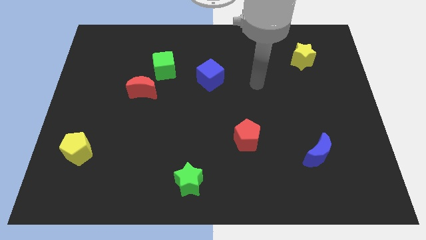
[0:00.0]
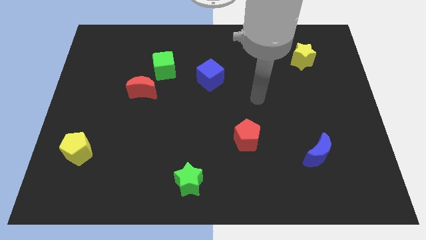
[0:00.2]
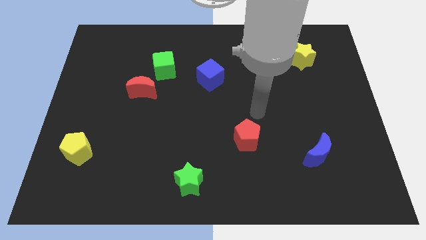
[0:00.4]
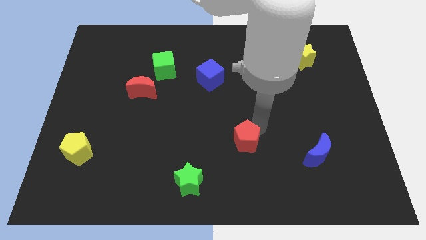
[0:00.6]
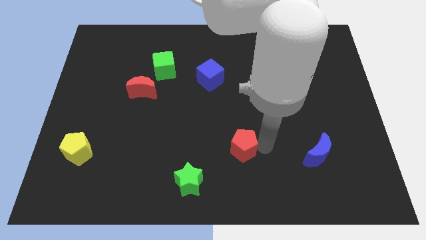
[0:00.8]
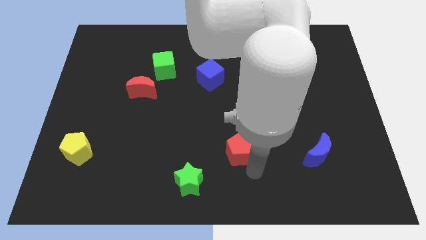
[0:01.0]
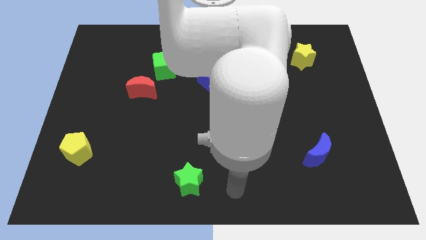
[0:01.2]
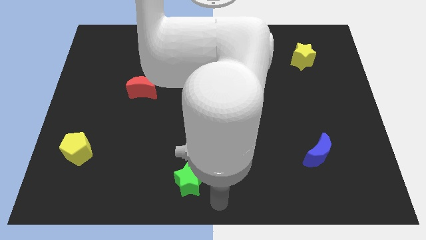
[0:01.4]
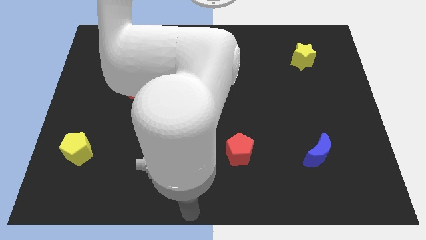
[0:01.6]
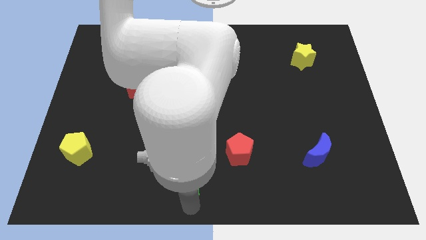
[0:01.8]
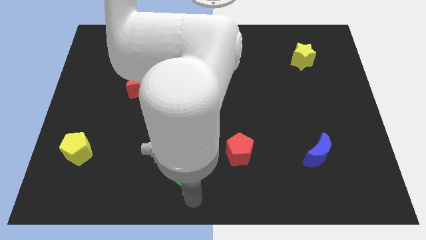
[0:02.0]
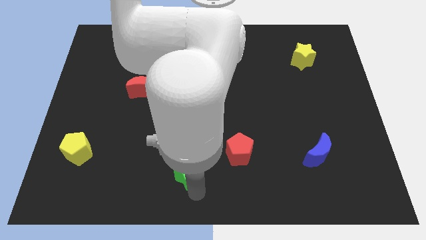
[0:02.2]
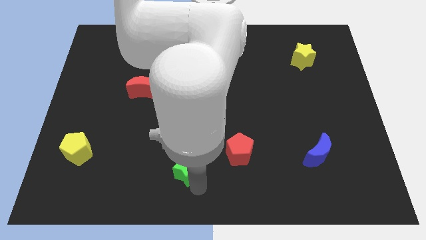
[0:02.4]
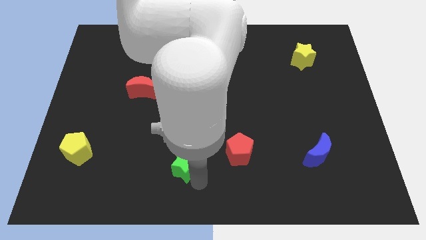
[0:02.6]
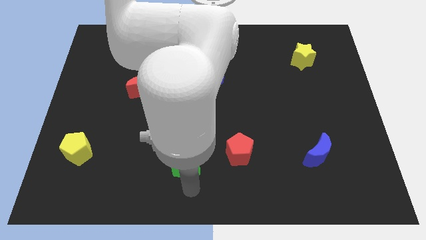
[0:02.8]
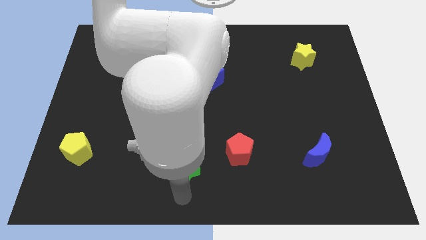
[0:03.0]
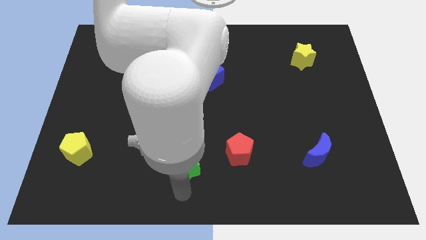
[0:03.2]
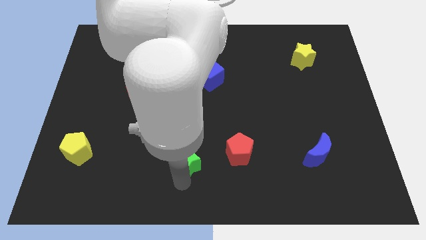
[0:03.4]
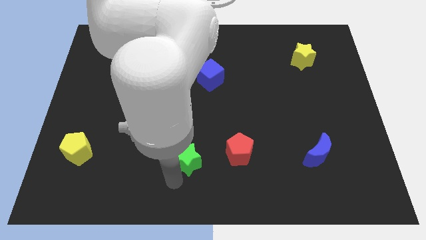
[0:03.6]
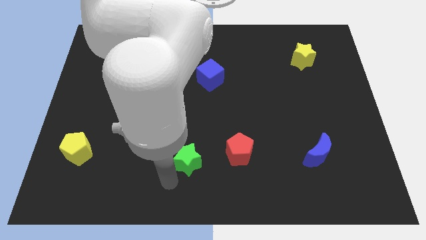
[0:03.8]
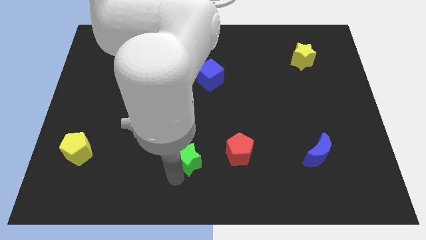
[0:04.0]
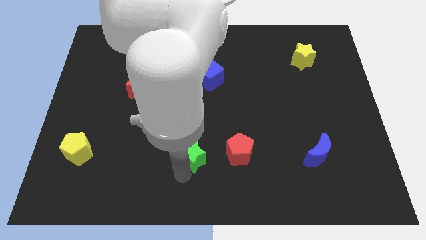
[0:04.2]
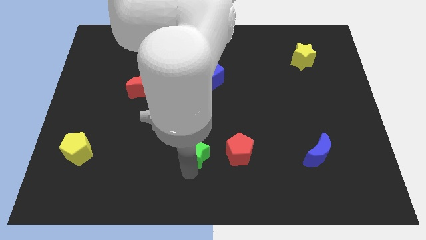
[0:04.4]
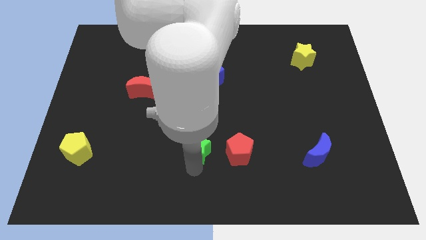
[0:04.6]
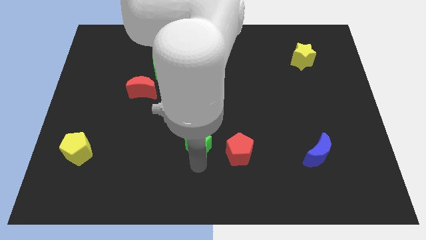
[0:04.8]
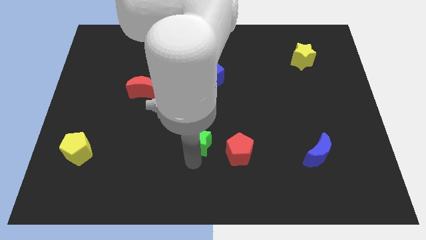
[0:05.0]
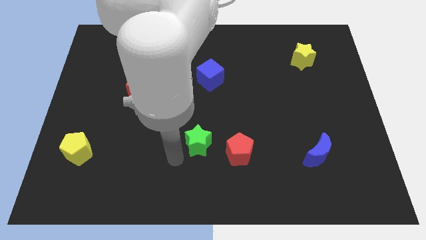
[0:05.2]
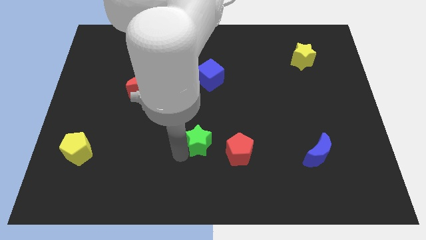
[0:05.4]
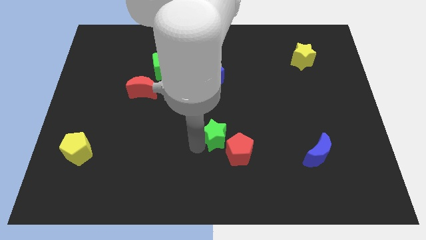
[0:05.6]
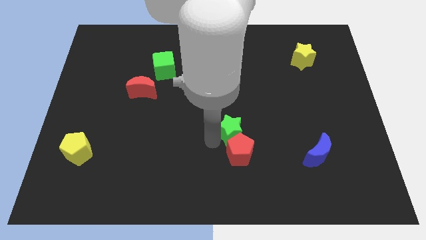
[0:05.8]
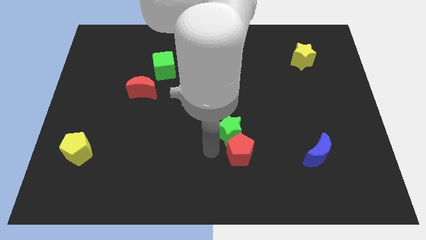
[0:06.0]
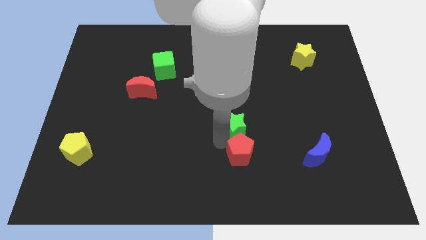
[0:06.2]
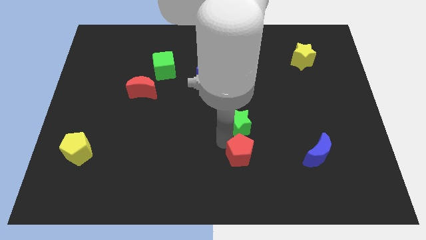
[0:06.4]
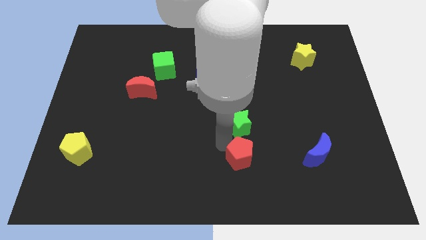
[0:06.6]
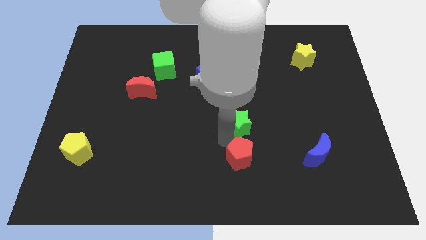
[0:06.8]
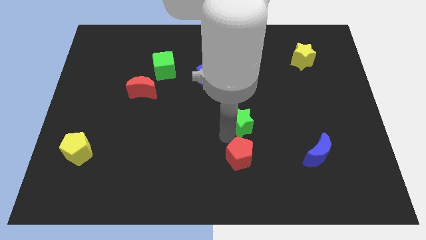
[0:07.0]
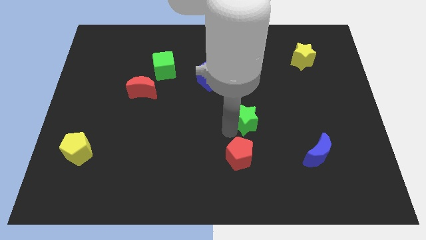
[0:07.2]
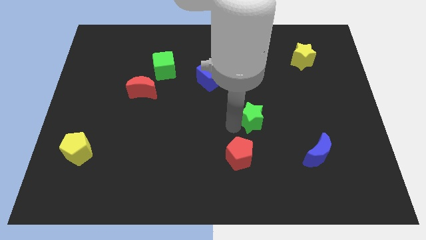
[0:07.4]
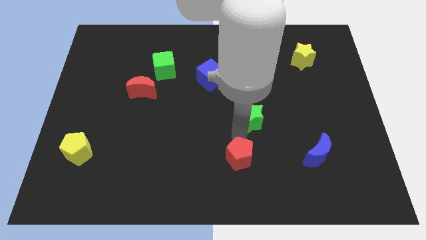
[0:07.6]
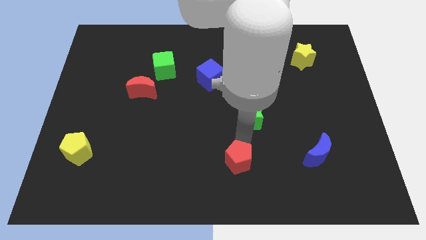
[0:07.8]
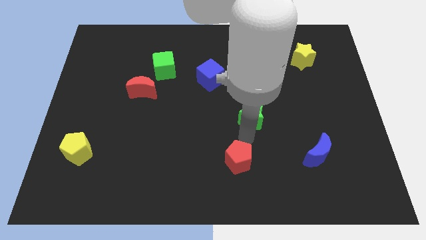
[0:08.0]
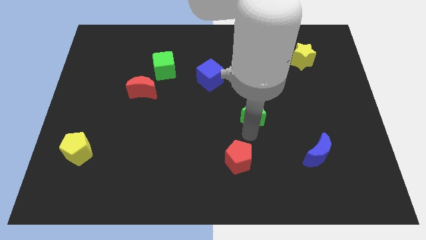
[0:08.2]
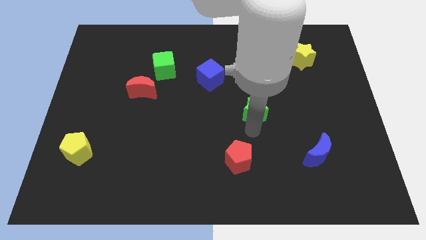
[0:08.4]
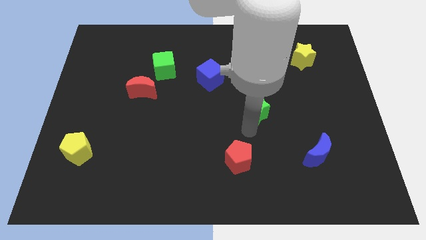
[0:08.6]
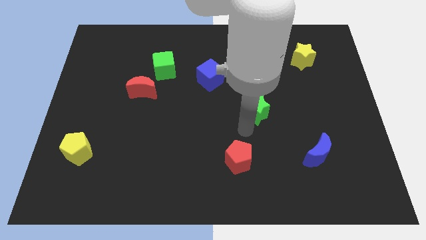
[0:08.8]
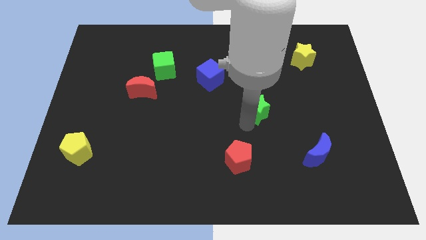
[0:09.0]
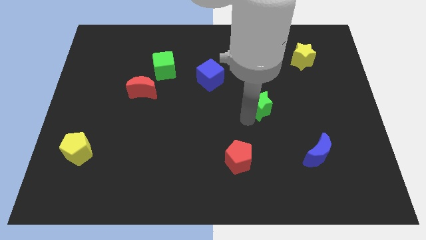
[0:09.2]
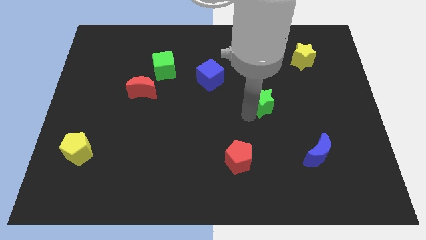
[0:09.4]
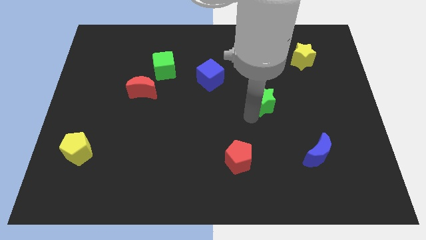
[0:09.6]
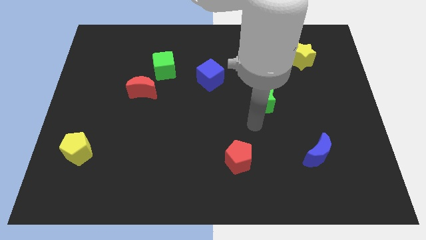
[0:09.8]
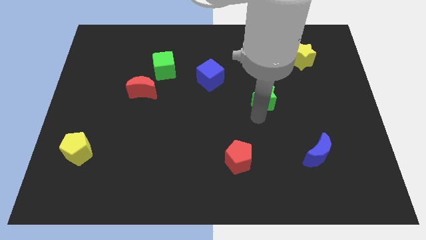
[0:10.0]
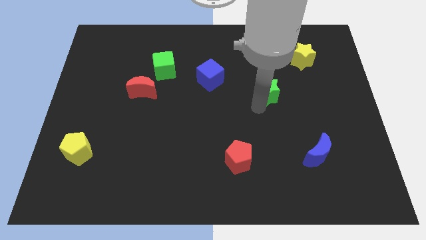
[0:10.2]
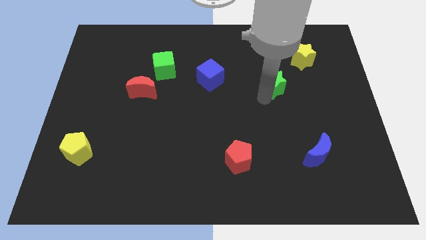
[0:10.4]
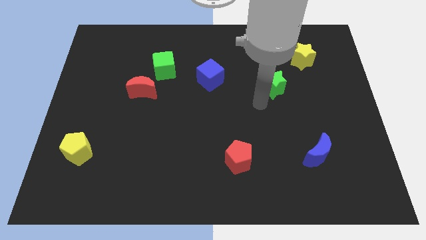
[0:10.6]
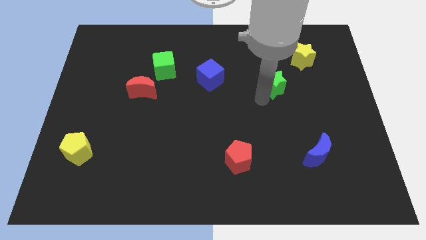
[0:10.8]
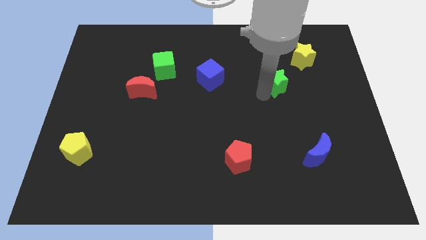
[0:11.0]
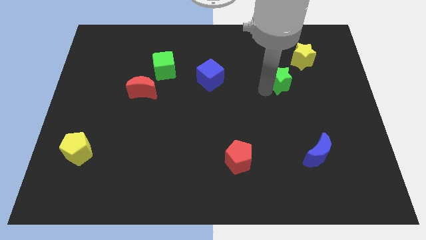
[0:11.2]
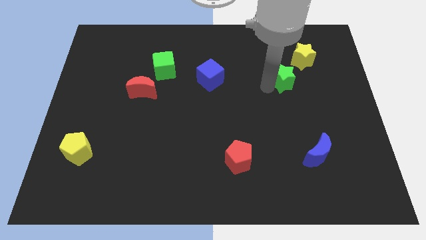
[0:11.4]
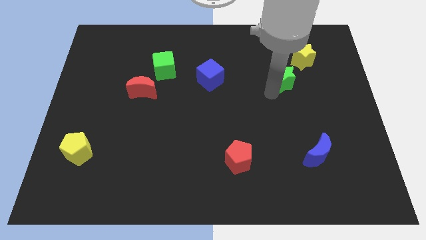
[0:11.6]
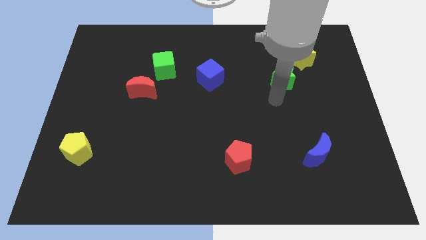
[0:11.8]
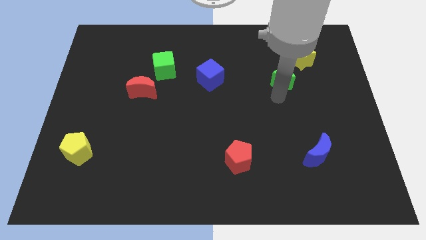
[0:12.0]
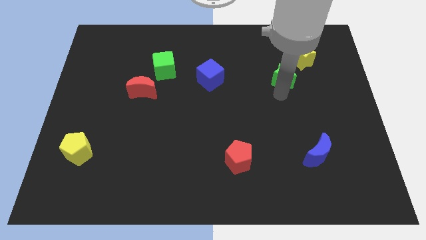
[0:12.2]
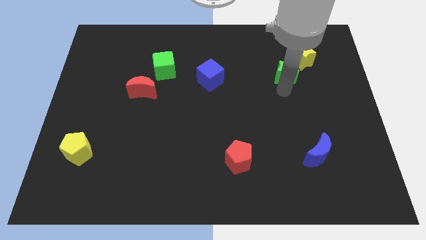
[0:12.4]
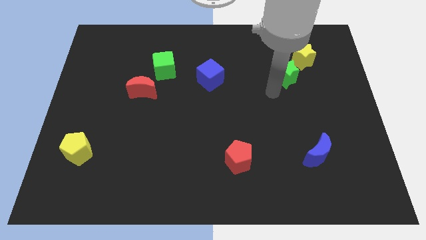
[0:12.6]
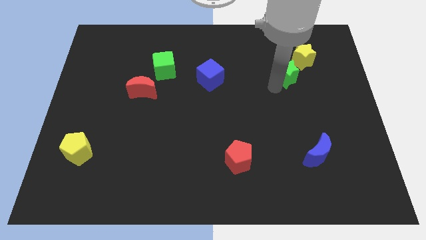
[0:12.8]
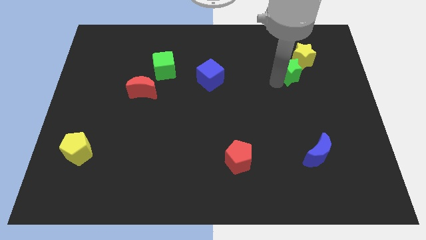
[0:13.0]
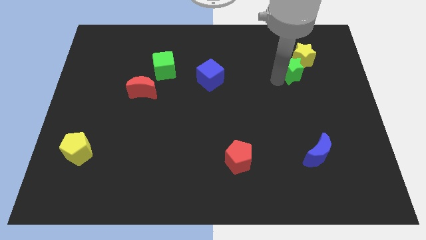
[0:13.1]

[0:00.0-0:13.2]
put the green star next to the yellow star

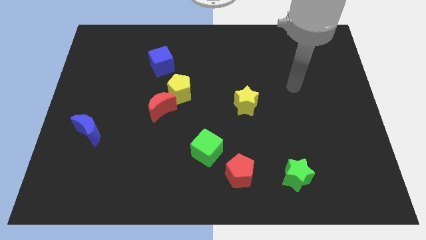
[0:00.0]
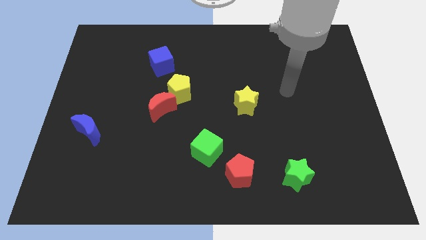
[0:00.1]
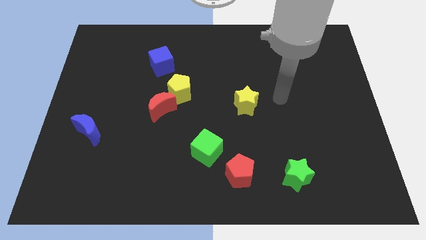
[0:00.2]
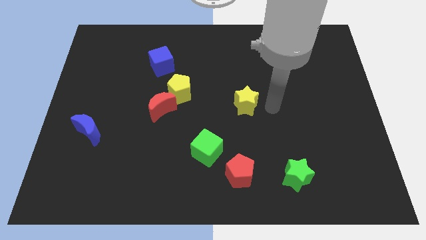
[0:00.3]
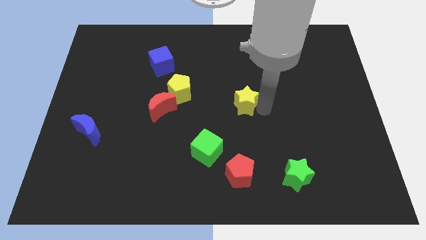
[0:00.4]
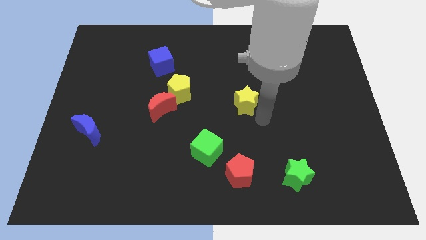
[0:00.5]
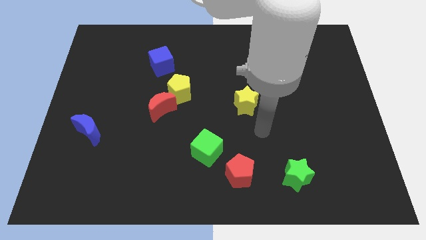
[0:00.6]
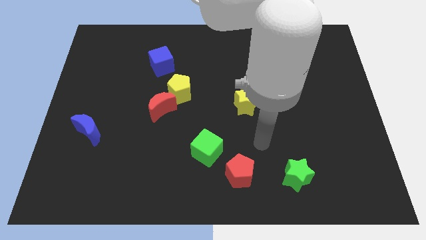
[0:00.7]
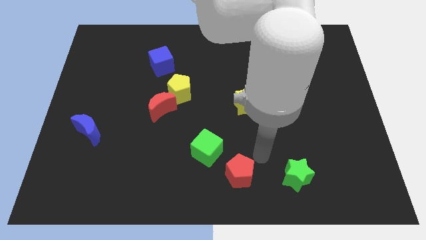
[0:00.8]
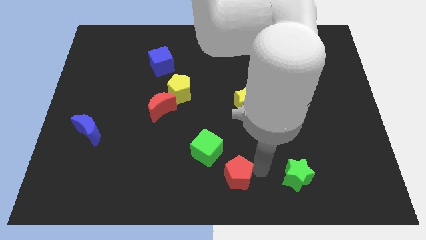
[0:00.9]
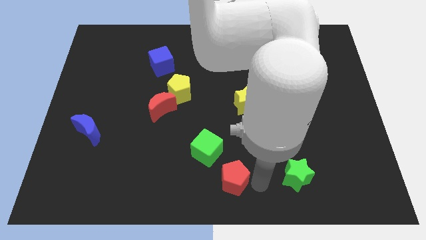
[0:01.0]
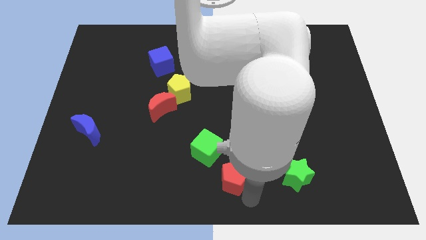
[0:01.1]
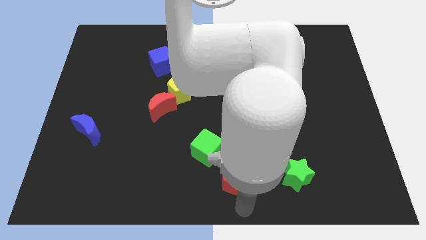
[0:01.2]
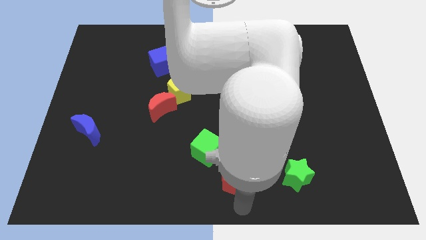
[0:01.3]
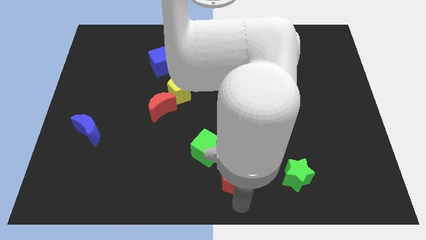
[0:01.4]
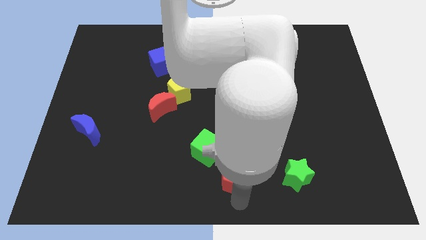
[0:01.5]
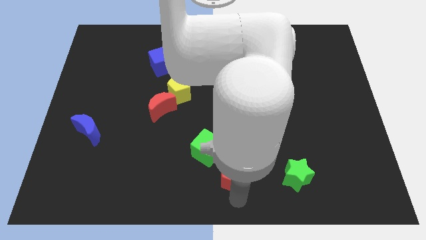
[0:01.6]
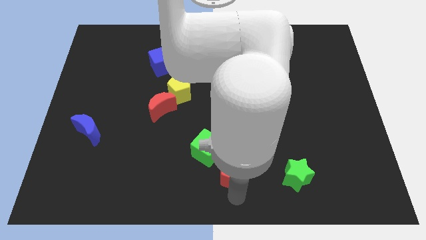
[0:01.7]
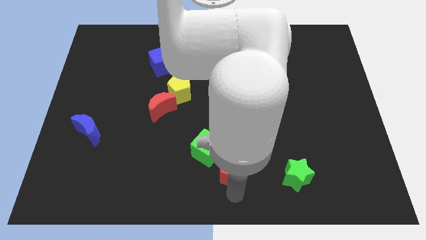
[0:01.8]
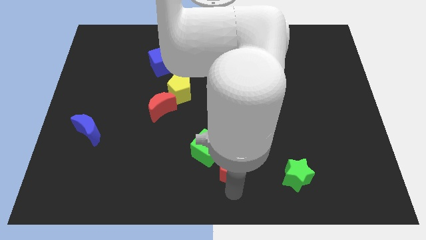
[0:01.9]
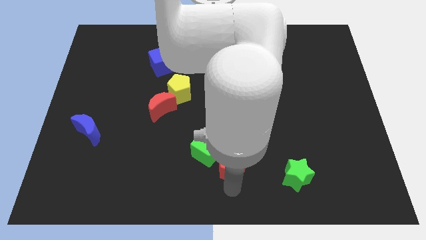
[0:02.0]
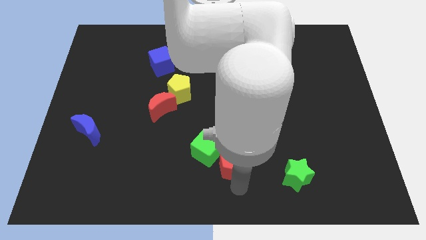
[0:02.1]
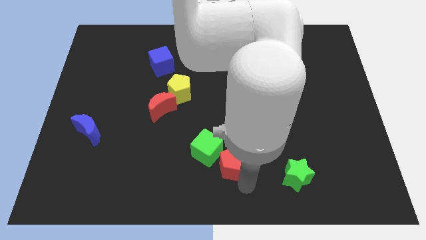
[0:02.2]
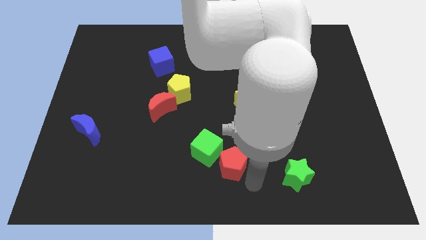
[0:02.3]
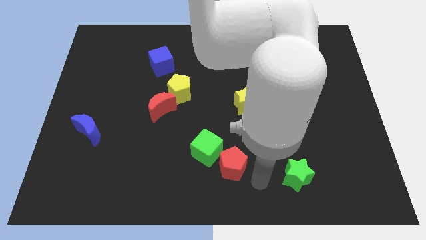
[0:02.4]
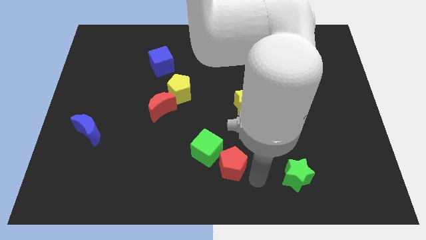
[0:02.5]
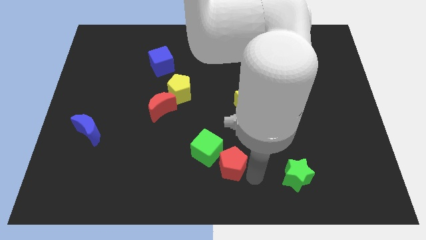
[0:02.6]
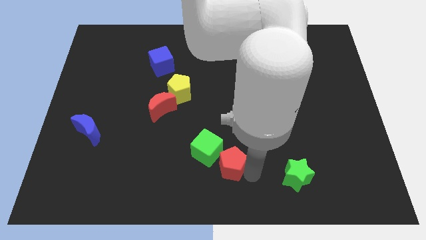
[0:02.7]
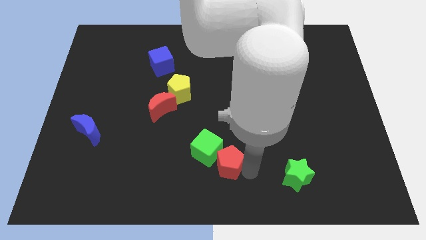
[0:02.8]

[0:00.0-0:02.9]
slide the red pentagon close to the green cube
